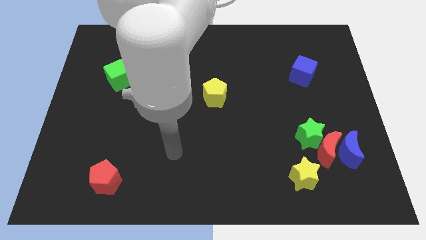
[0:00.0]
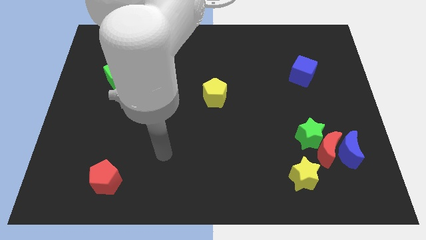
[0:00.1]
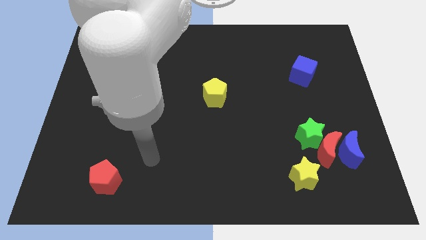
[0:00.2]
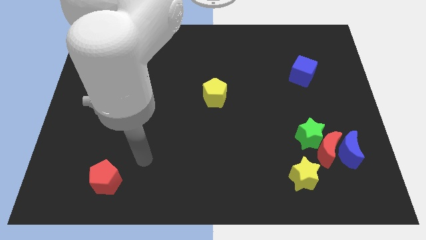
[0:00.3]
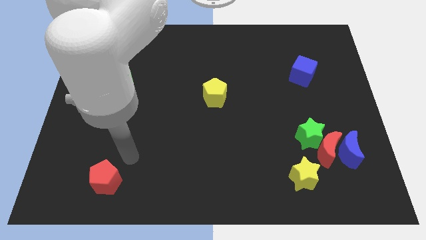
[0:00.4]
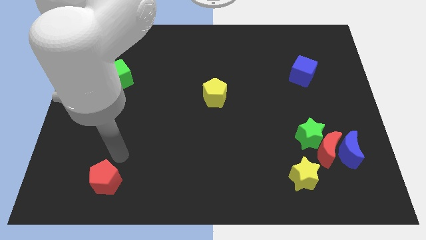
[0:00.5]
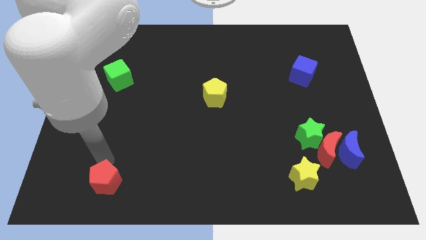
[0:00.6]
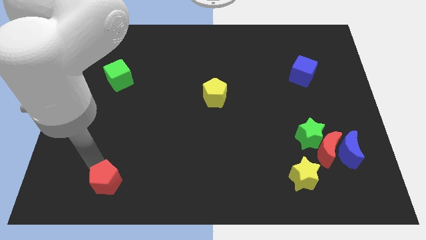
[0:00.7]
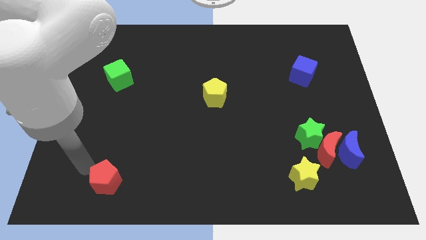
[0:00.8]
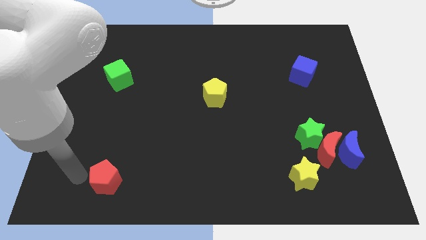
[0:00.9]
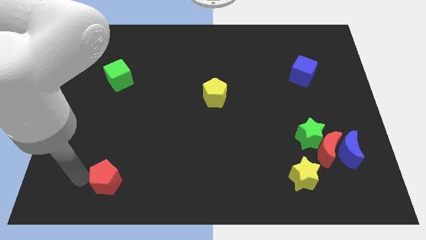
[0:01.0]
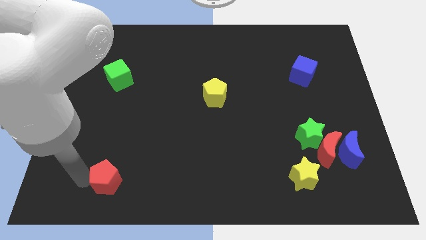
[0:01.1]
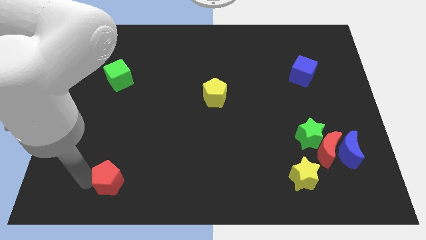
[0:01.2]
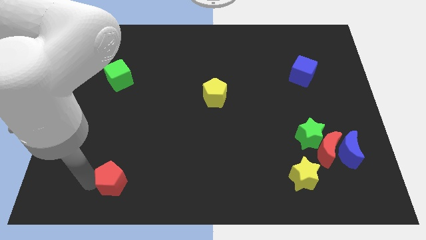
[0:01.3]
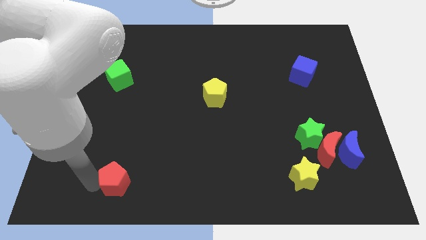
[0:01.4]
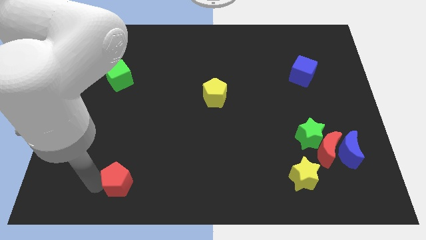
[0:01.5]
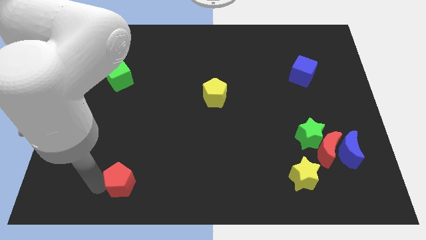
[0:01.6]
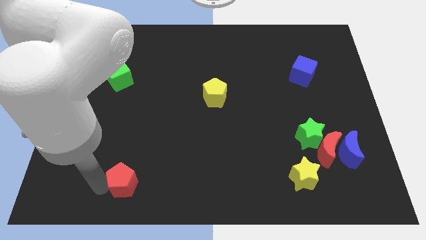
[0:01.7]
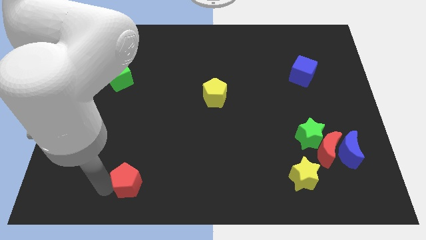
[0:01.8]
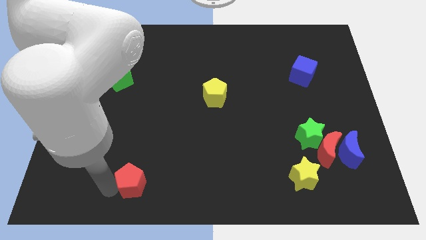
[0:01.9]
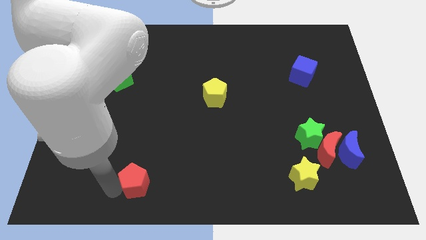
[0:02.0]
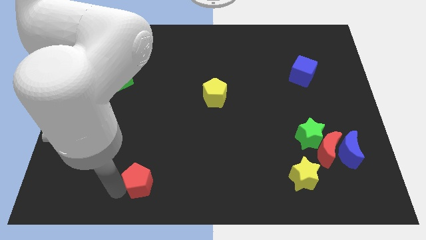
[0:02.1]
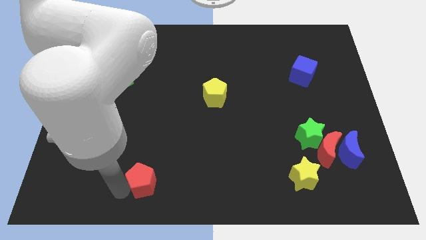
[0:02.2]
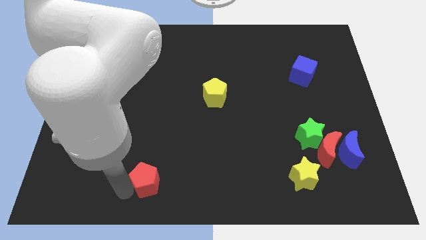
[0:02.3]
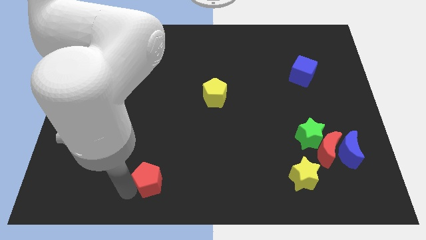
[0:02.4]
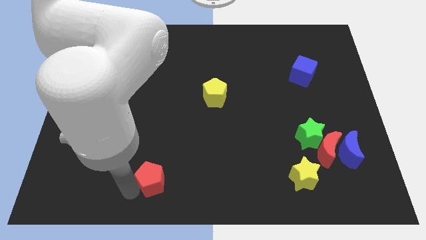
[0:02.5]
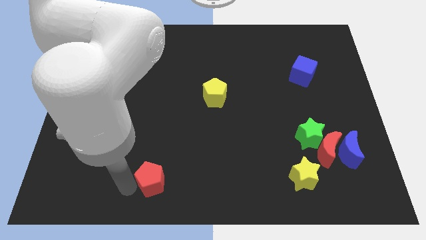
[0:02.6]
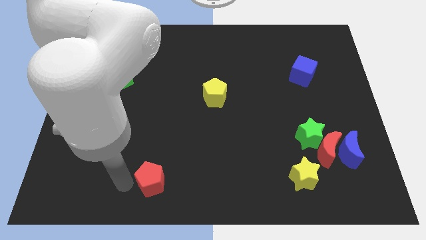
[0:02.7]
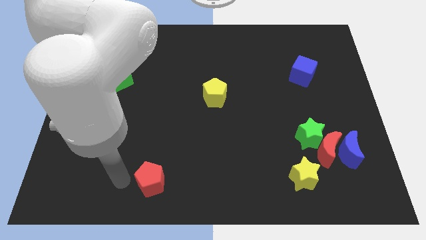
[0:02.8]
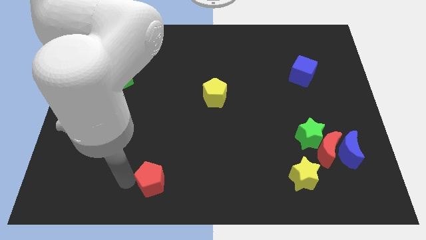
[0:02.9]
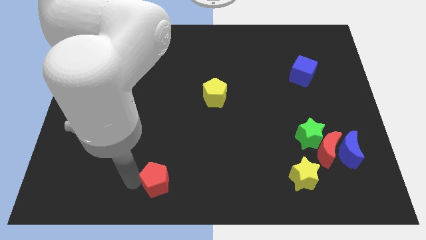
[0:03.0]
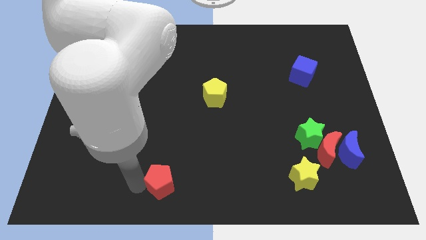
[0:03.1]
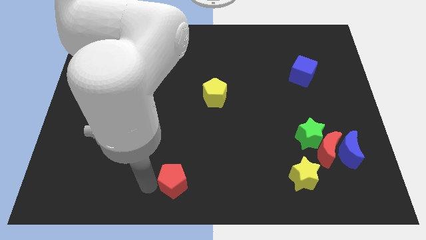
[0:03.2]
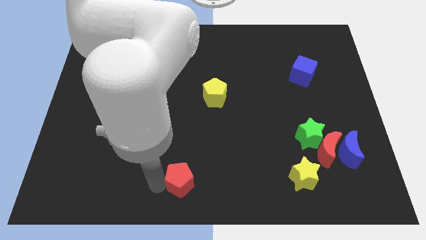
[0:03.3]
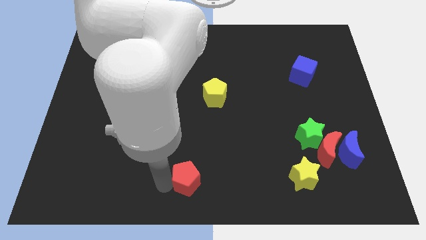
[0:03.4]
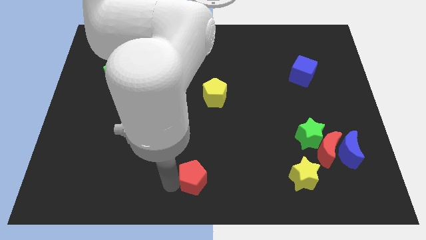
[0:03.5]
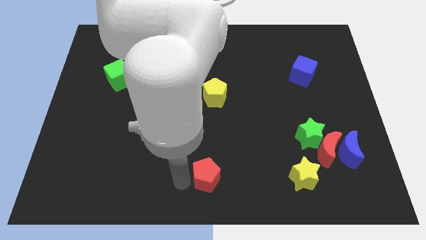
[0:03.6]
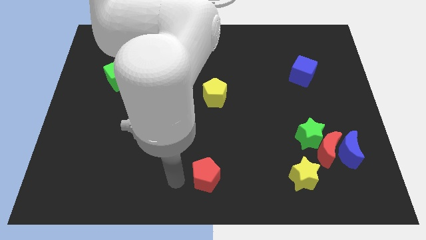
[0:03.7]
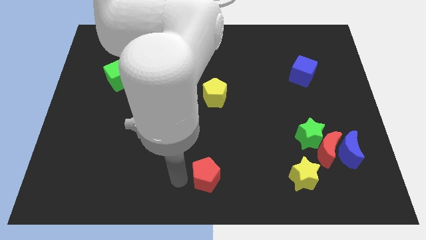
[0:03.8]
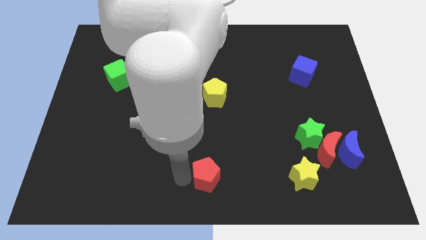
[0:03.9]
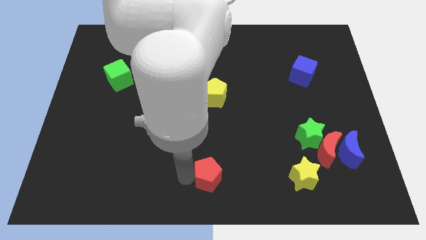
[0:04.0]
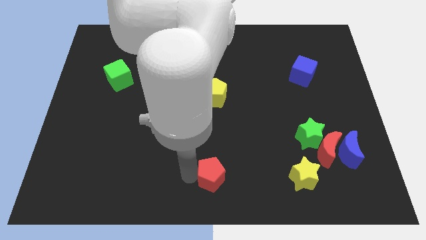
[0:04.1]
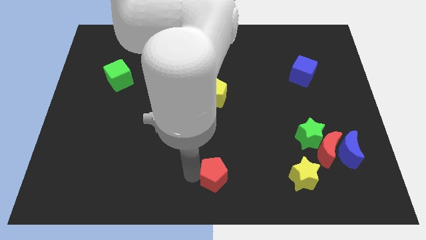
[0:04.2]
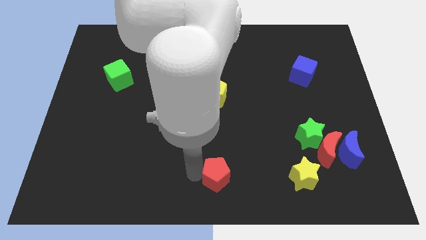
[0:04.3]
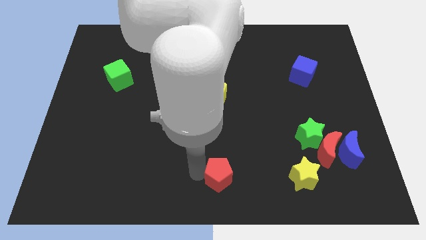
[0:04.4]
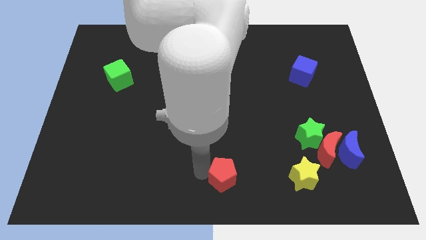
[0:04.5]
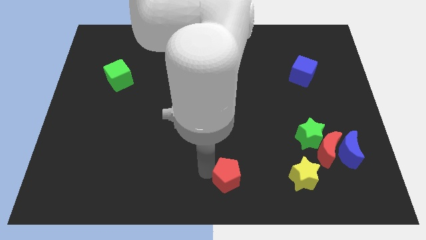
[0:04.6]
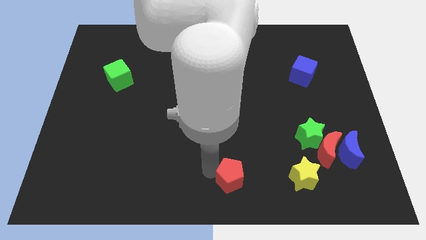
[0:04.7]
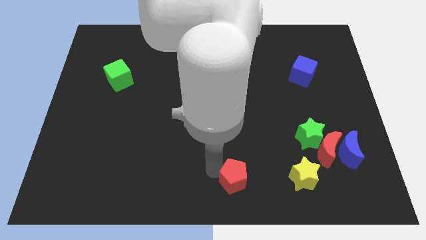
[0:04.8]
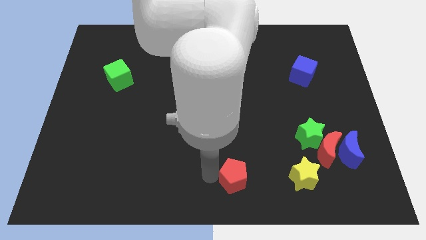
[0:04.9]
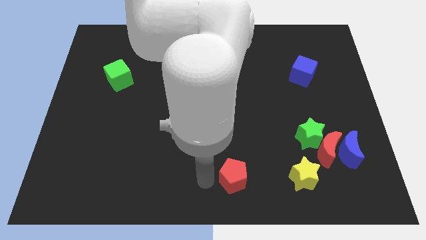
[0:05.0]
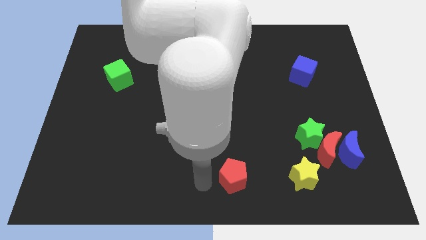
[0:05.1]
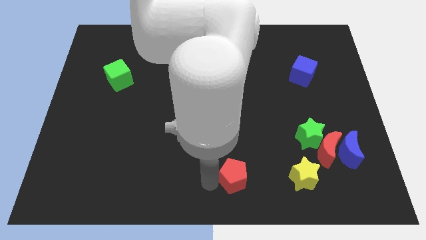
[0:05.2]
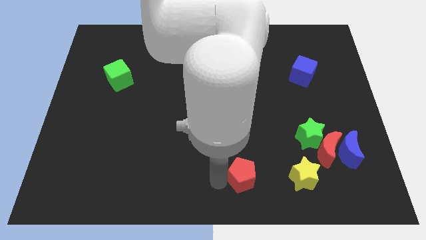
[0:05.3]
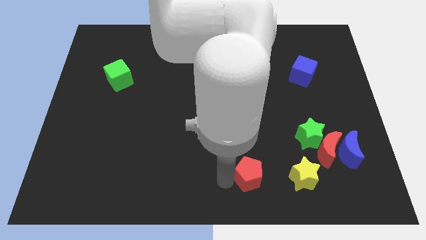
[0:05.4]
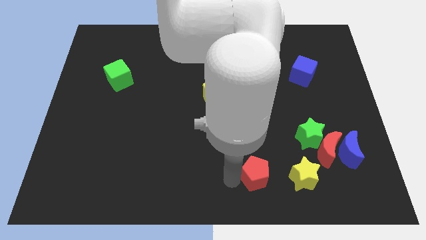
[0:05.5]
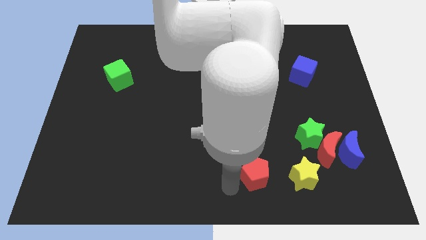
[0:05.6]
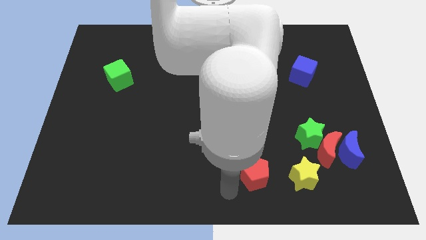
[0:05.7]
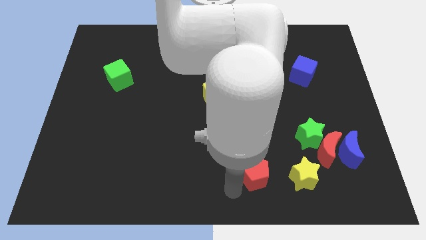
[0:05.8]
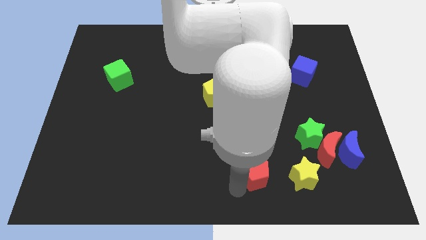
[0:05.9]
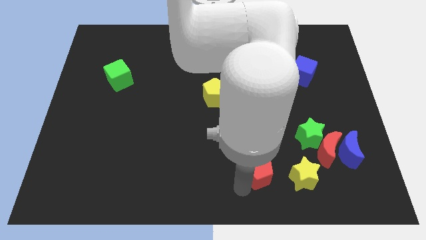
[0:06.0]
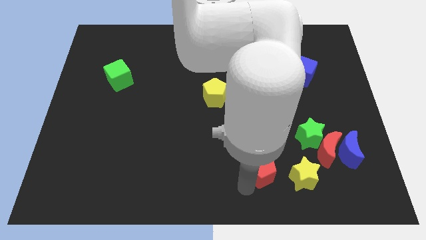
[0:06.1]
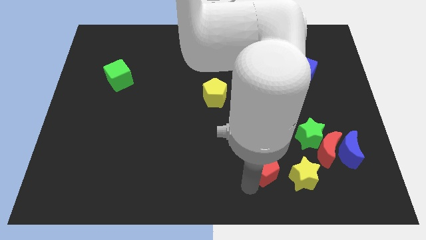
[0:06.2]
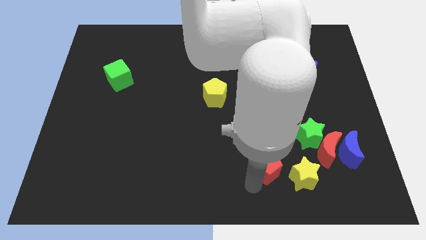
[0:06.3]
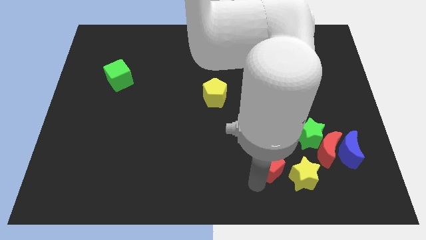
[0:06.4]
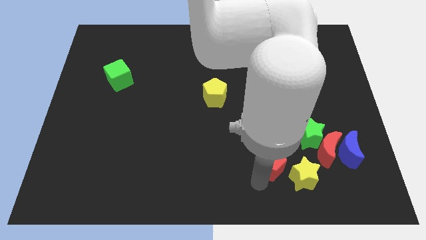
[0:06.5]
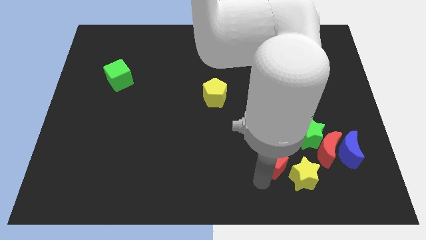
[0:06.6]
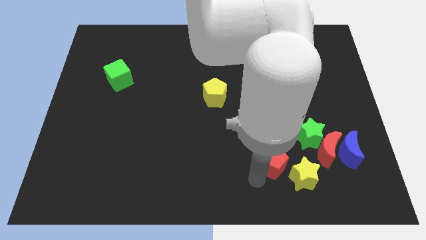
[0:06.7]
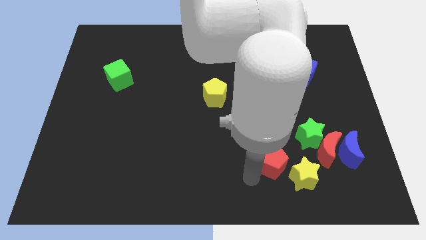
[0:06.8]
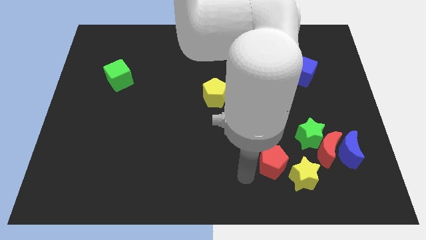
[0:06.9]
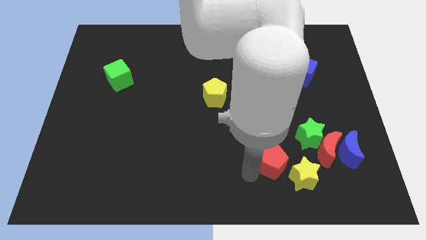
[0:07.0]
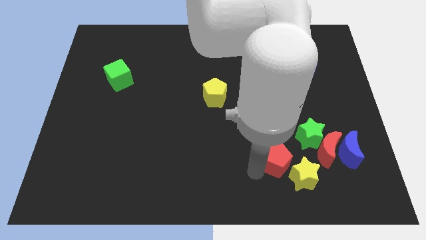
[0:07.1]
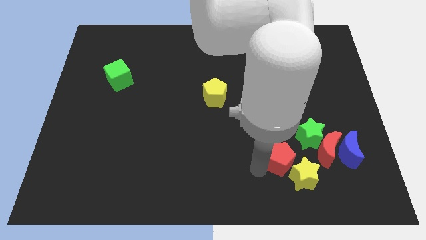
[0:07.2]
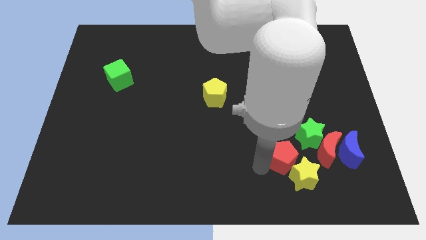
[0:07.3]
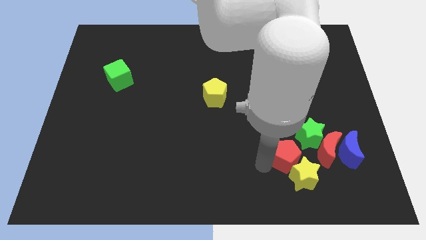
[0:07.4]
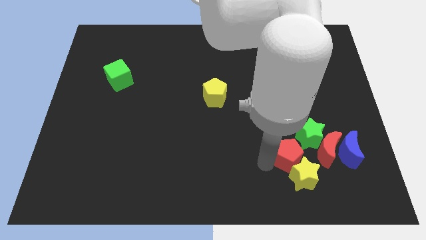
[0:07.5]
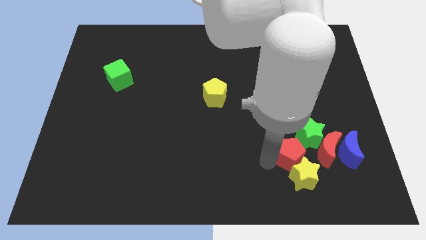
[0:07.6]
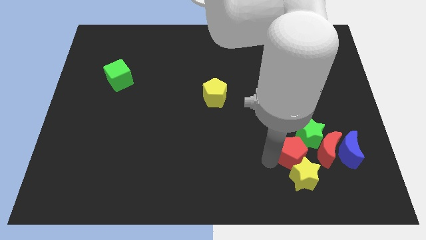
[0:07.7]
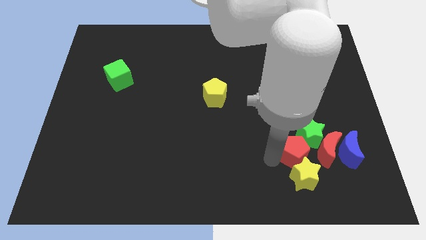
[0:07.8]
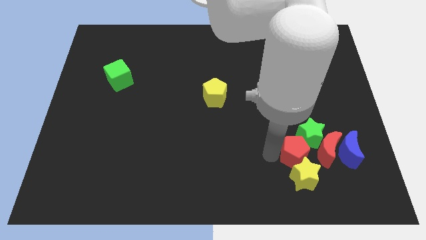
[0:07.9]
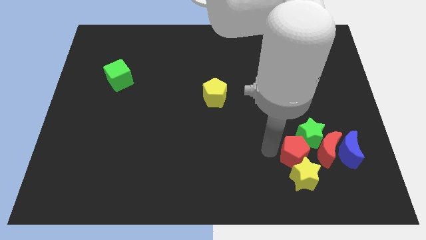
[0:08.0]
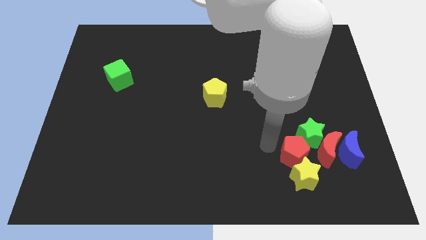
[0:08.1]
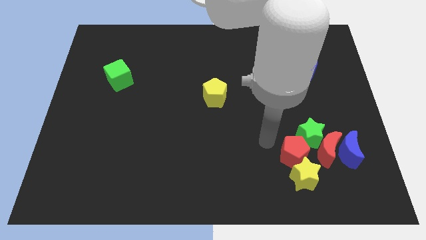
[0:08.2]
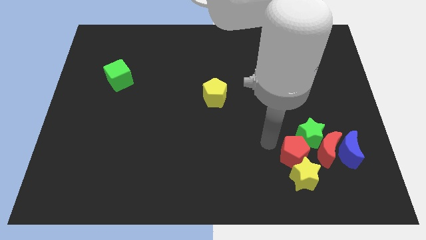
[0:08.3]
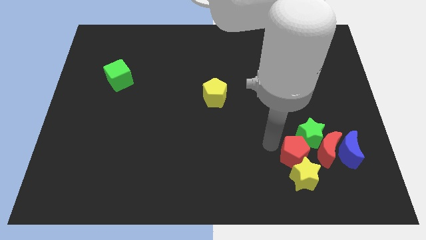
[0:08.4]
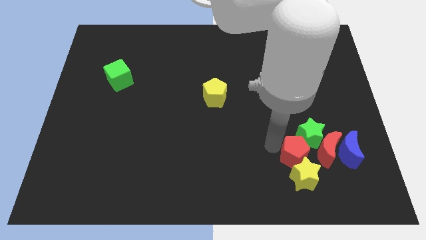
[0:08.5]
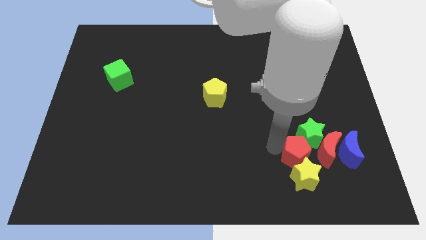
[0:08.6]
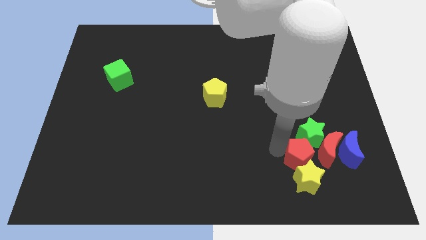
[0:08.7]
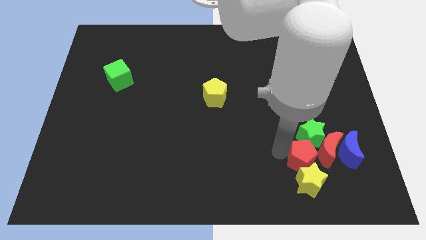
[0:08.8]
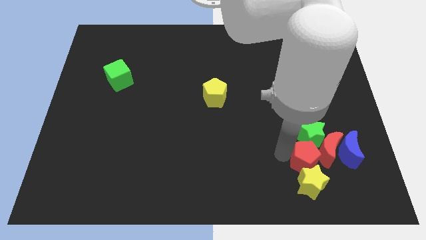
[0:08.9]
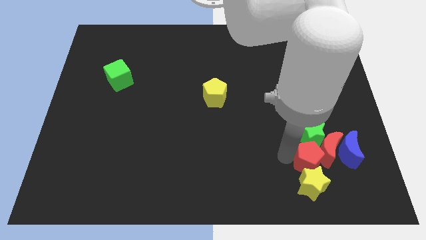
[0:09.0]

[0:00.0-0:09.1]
push the red pentagon to the bottom left of the blue moon
